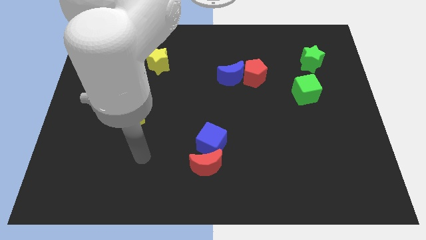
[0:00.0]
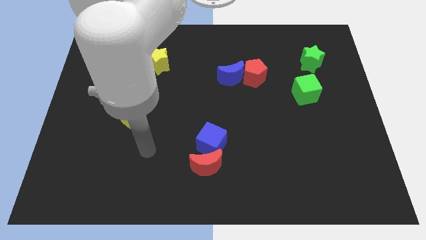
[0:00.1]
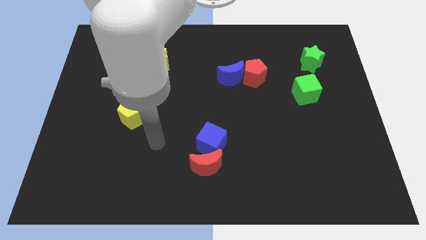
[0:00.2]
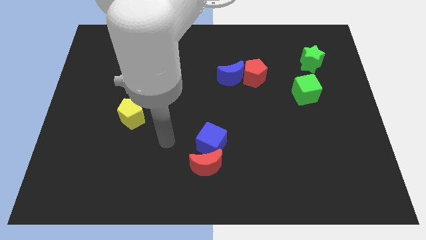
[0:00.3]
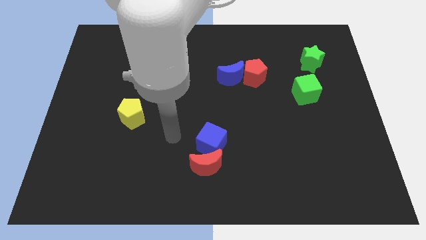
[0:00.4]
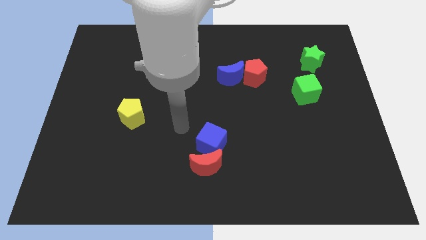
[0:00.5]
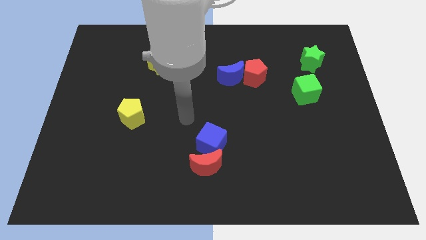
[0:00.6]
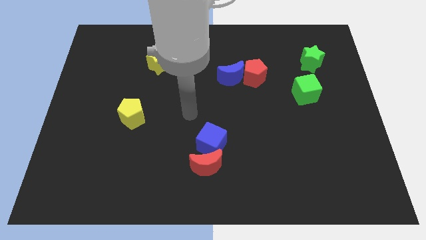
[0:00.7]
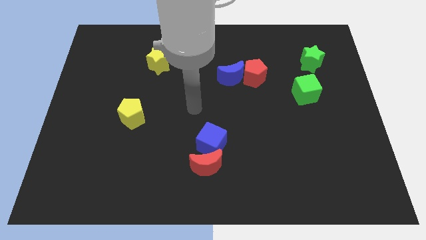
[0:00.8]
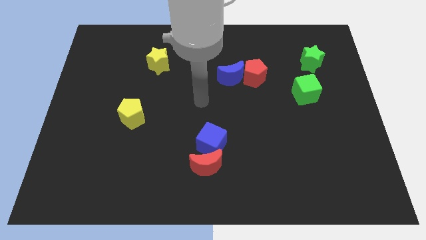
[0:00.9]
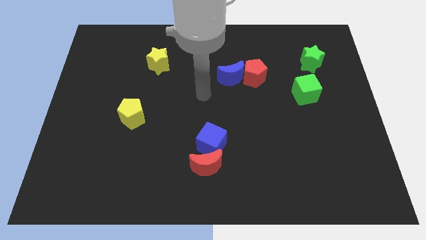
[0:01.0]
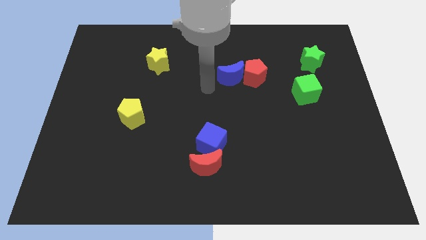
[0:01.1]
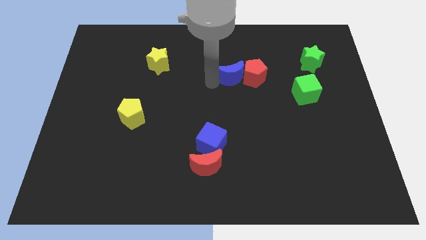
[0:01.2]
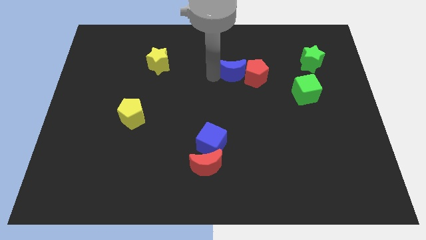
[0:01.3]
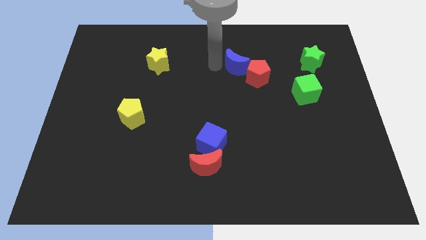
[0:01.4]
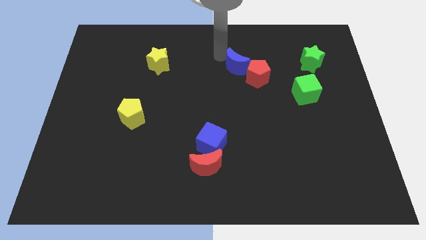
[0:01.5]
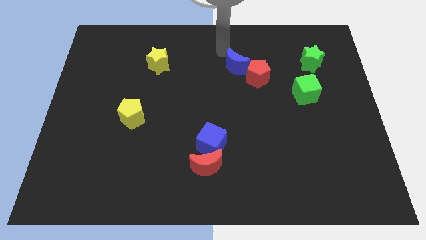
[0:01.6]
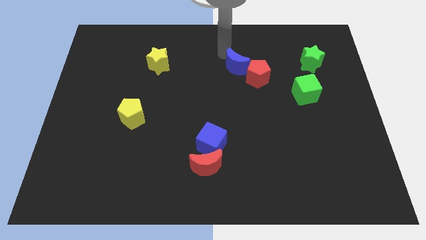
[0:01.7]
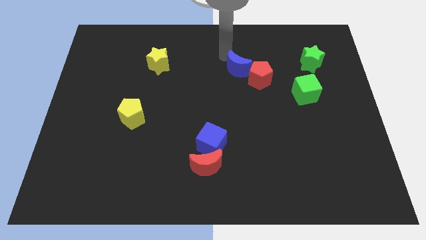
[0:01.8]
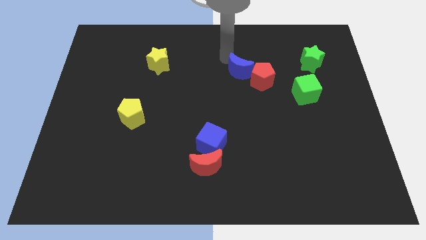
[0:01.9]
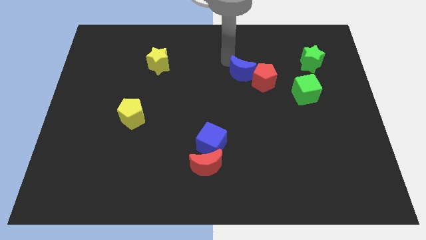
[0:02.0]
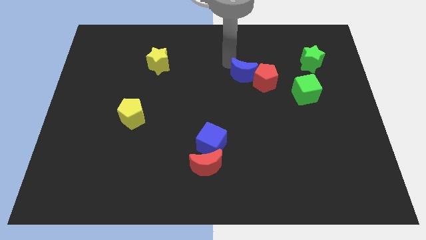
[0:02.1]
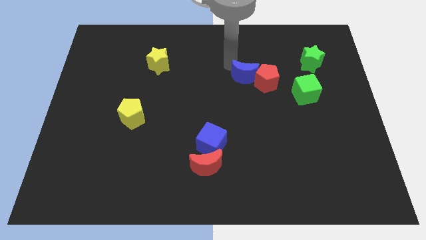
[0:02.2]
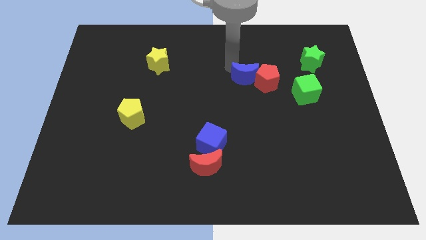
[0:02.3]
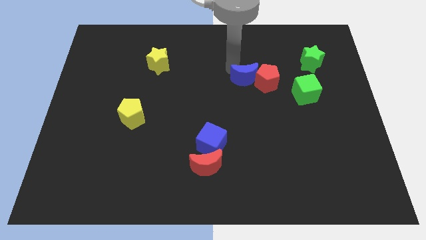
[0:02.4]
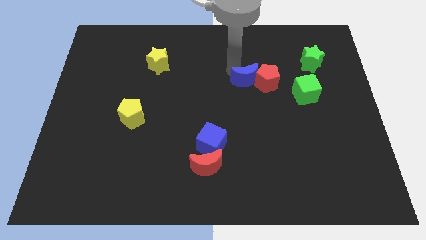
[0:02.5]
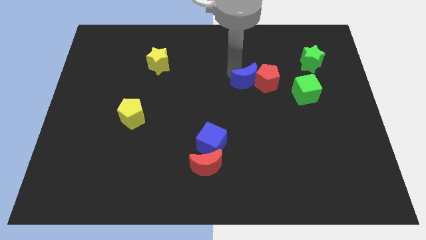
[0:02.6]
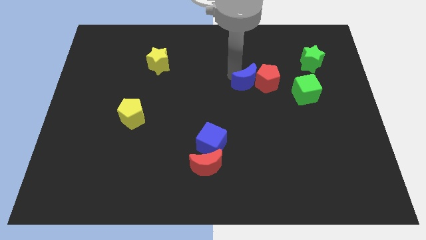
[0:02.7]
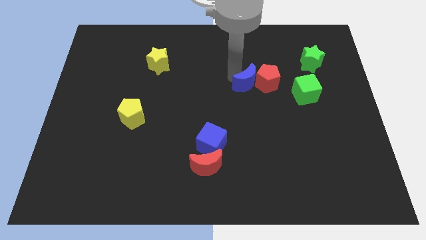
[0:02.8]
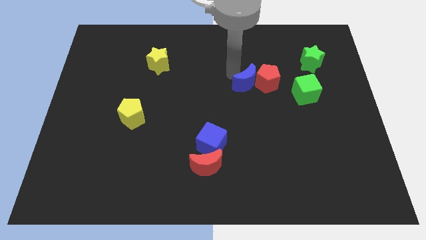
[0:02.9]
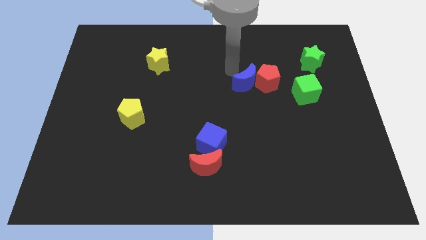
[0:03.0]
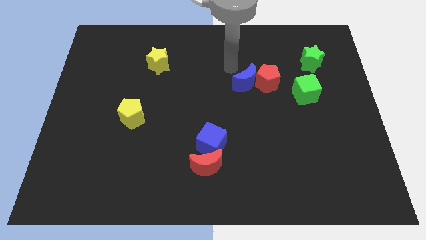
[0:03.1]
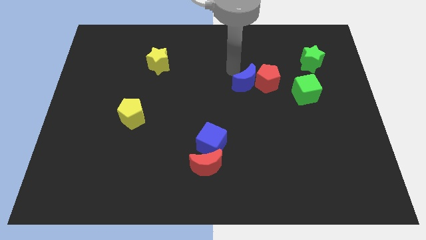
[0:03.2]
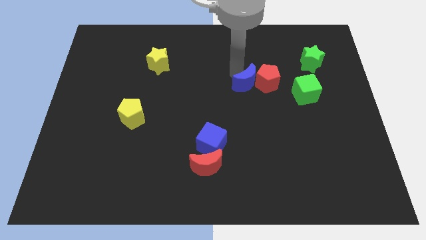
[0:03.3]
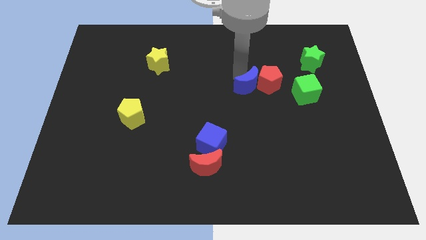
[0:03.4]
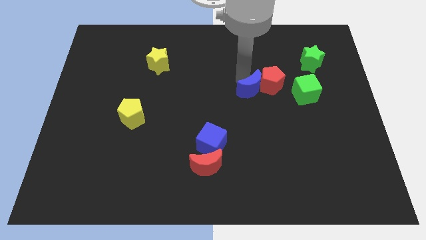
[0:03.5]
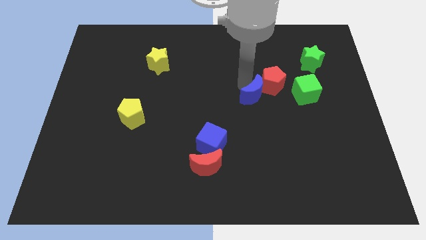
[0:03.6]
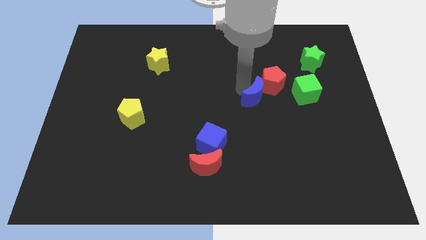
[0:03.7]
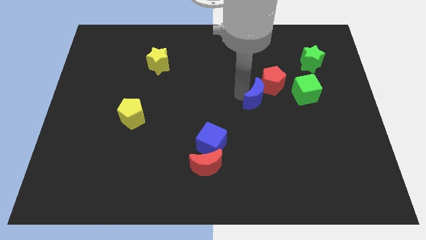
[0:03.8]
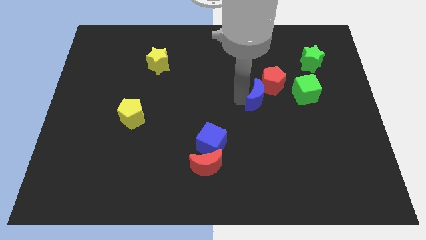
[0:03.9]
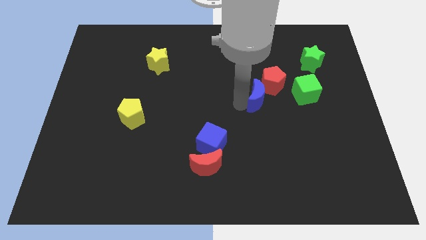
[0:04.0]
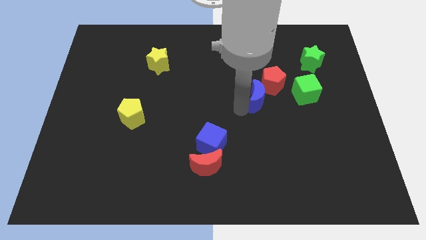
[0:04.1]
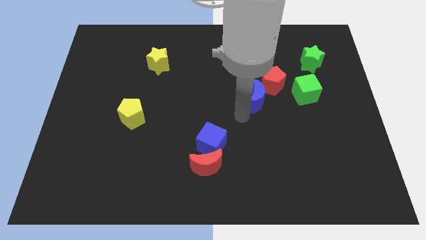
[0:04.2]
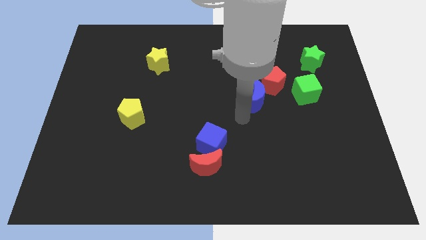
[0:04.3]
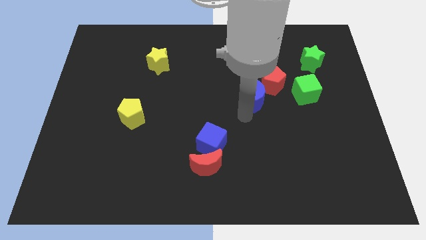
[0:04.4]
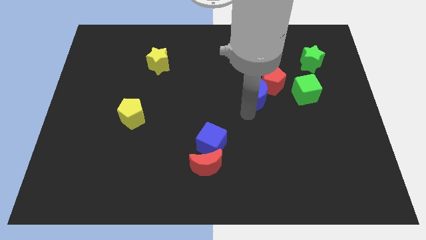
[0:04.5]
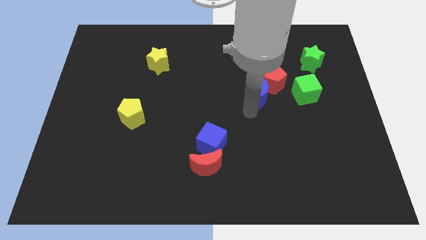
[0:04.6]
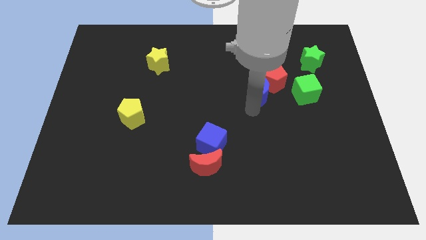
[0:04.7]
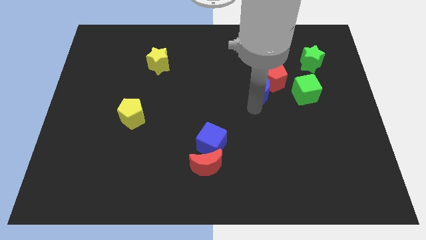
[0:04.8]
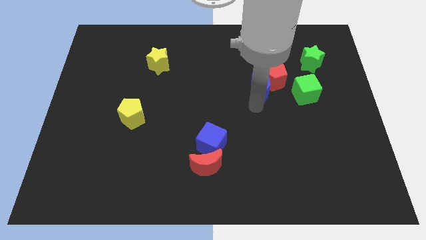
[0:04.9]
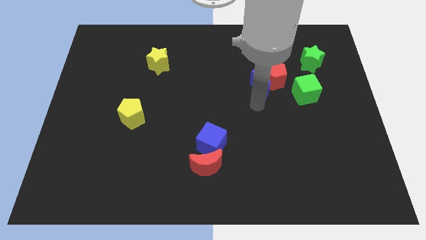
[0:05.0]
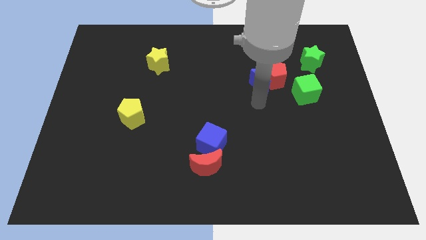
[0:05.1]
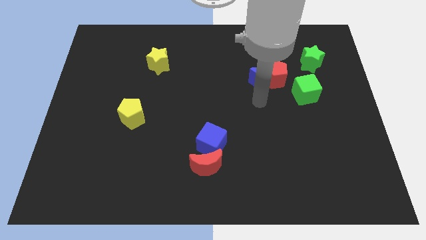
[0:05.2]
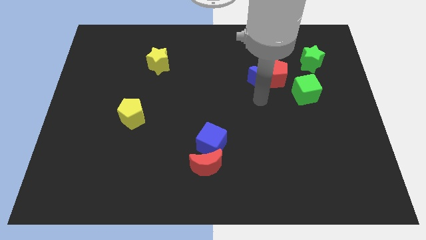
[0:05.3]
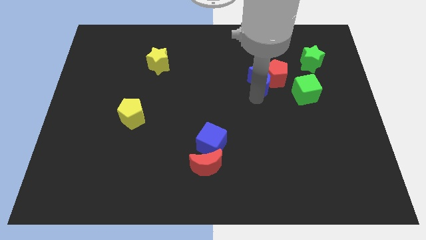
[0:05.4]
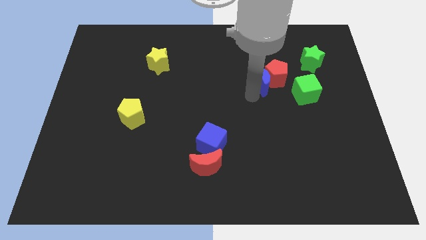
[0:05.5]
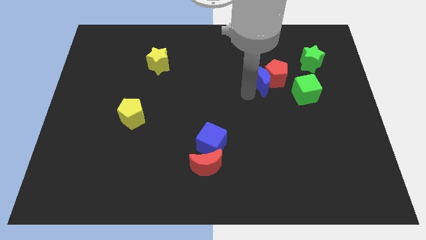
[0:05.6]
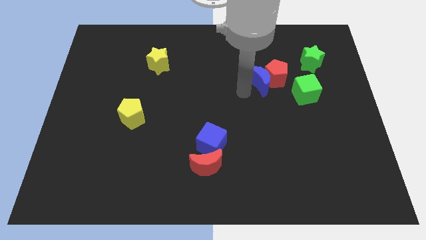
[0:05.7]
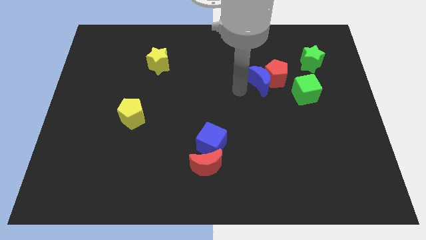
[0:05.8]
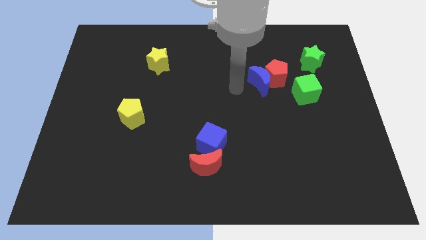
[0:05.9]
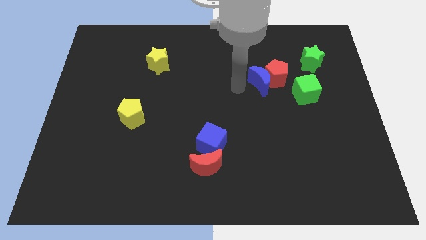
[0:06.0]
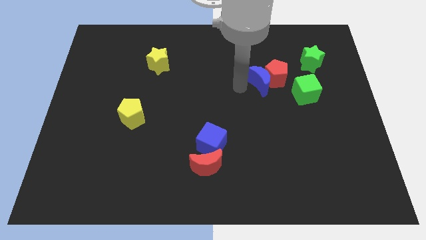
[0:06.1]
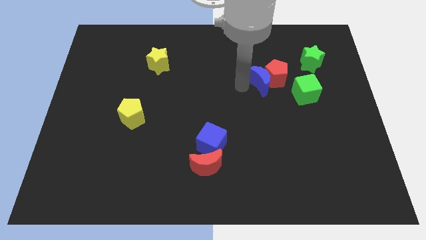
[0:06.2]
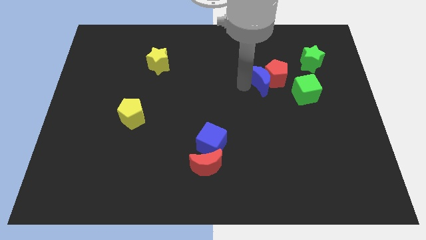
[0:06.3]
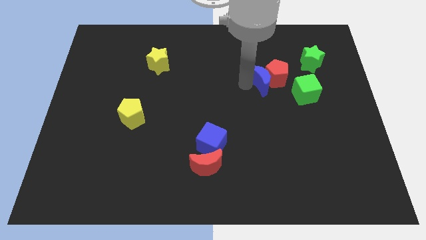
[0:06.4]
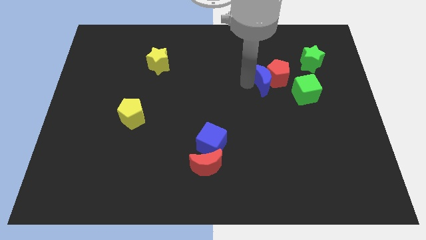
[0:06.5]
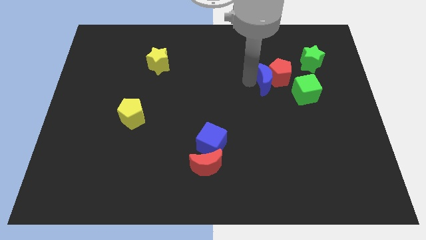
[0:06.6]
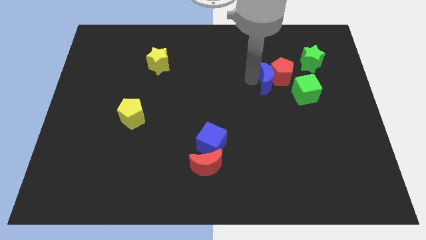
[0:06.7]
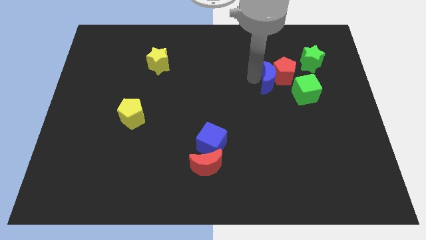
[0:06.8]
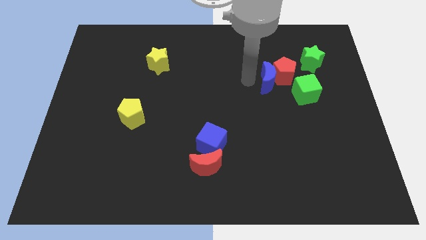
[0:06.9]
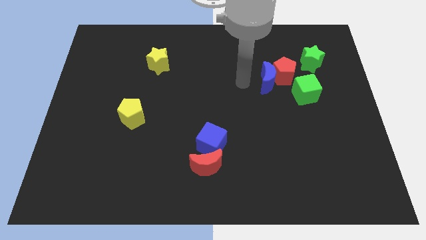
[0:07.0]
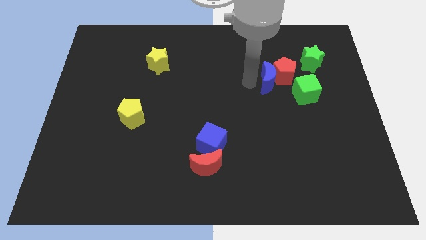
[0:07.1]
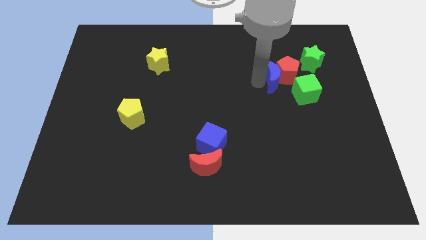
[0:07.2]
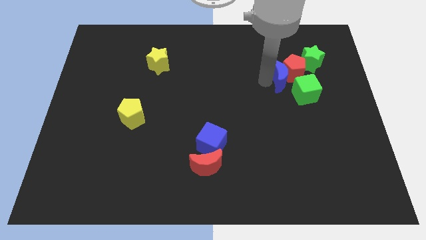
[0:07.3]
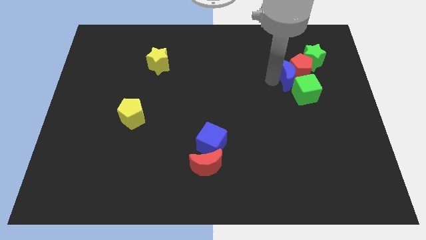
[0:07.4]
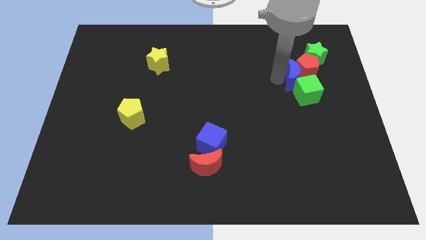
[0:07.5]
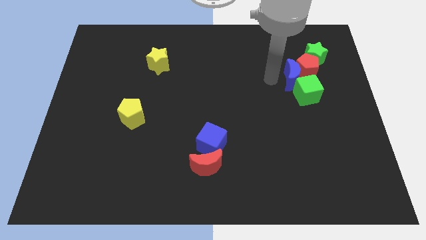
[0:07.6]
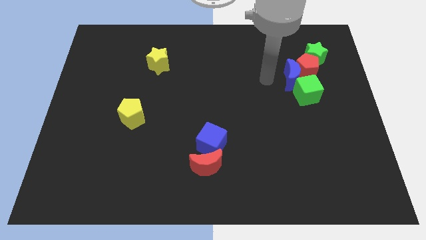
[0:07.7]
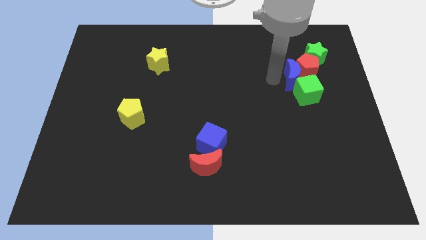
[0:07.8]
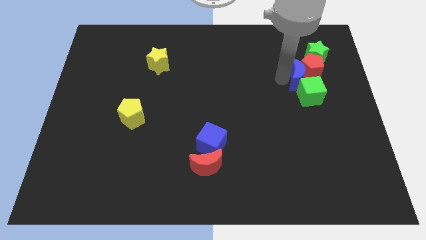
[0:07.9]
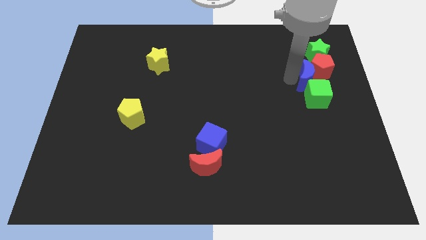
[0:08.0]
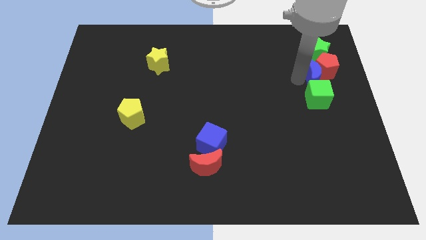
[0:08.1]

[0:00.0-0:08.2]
move the blue moon diagonally up and to the right of the green cube
